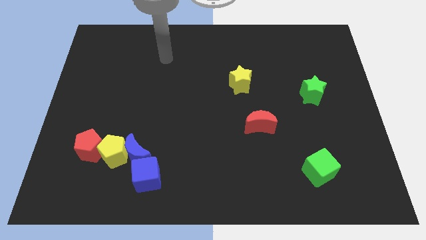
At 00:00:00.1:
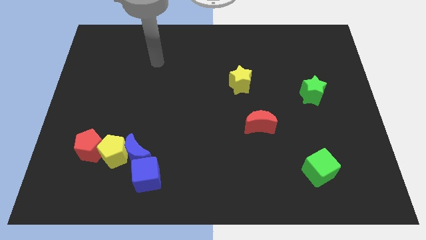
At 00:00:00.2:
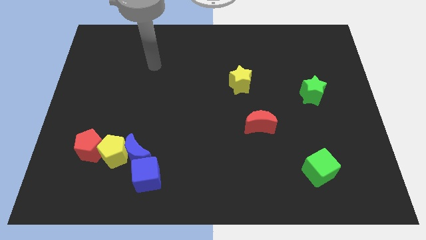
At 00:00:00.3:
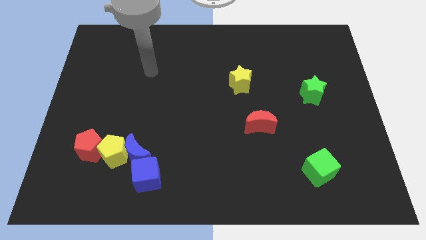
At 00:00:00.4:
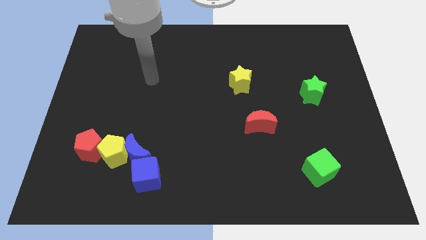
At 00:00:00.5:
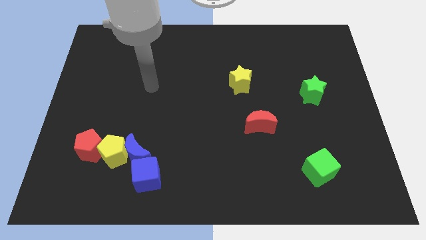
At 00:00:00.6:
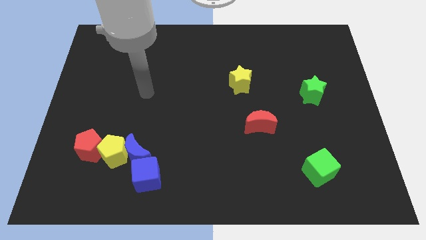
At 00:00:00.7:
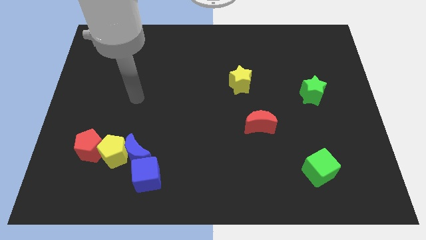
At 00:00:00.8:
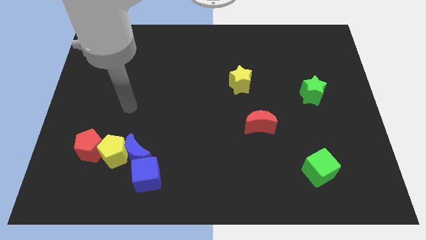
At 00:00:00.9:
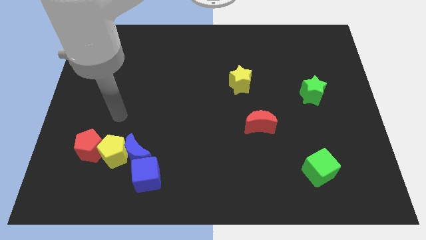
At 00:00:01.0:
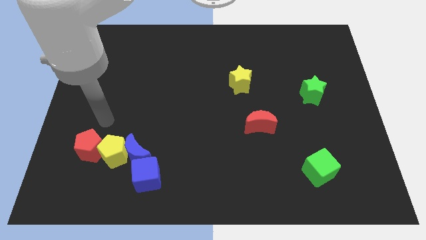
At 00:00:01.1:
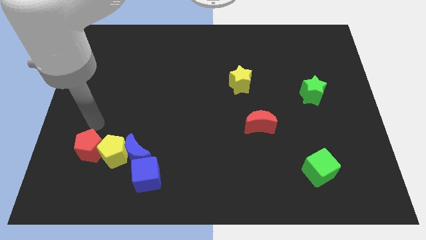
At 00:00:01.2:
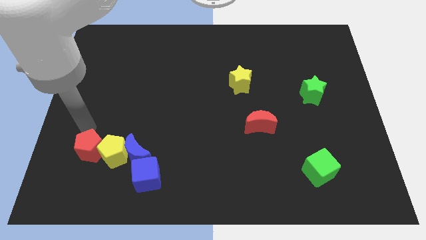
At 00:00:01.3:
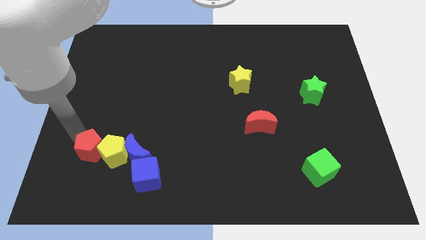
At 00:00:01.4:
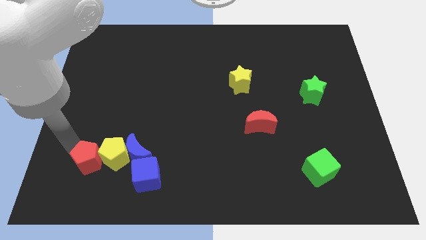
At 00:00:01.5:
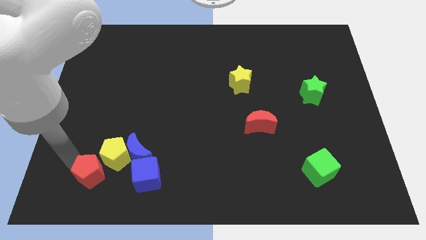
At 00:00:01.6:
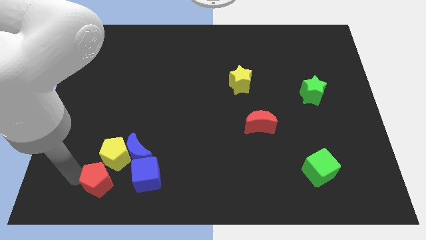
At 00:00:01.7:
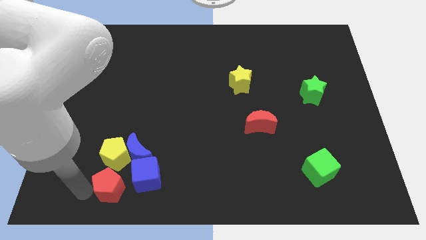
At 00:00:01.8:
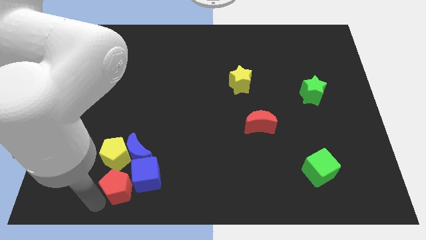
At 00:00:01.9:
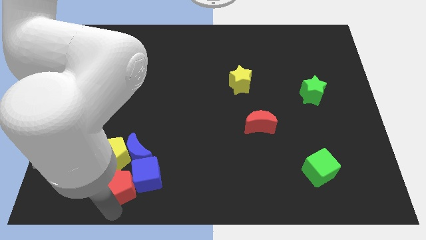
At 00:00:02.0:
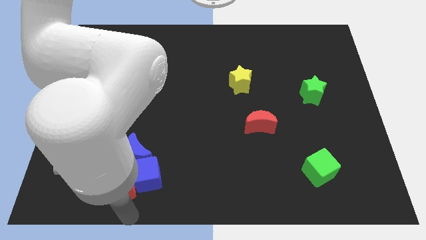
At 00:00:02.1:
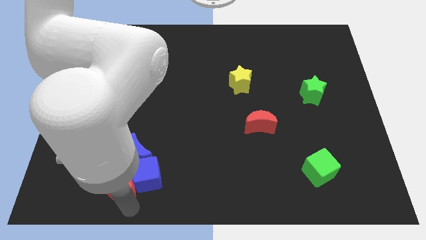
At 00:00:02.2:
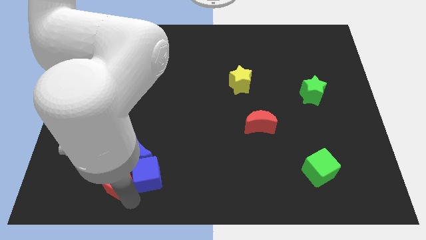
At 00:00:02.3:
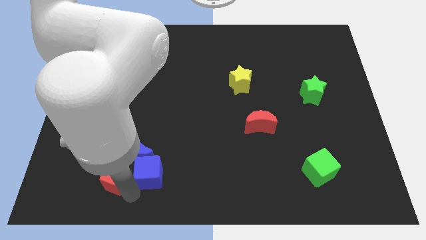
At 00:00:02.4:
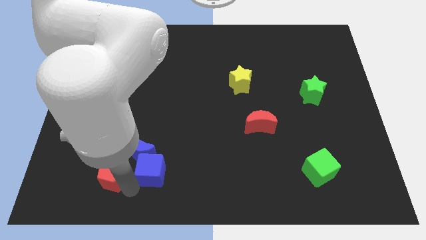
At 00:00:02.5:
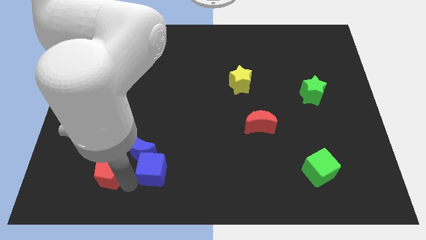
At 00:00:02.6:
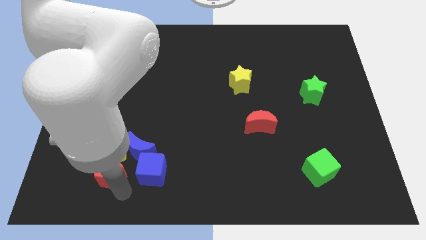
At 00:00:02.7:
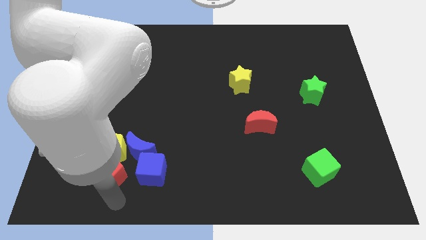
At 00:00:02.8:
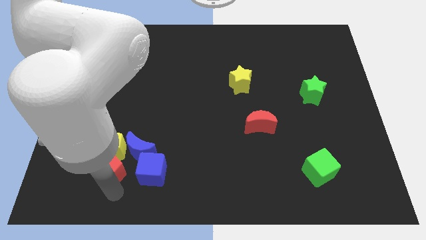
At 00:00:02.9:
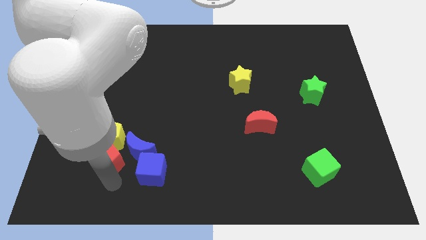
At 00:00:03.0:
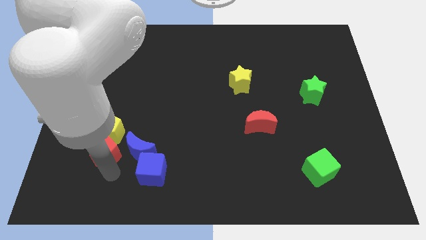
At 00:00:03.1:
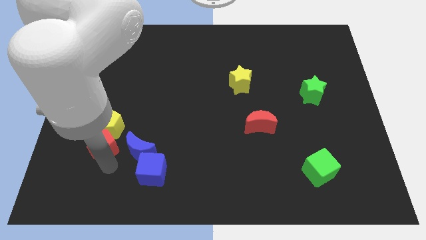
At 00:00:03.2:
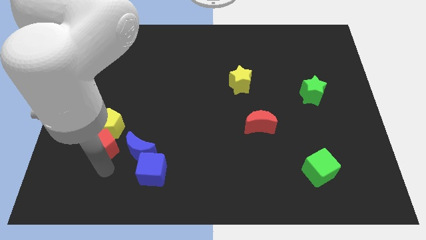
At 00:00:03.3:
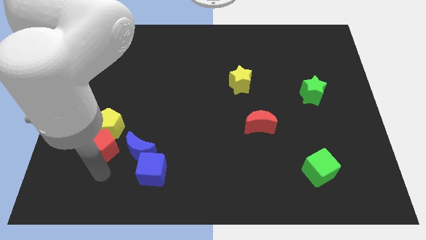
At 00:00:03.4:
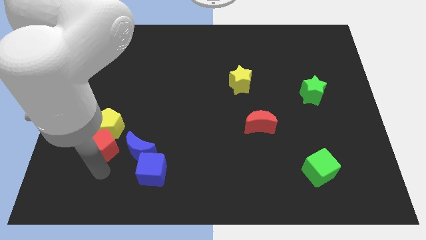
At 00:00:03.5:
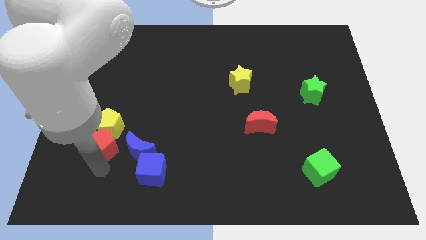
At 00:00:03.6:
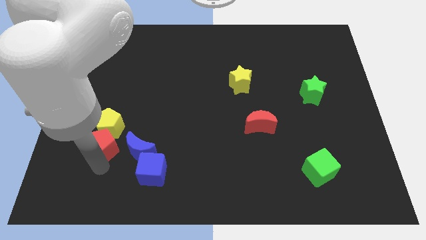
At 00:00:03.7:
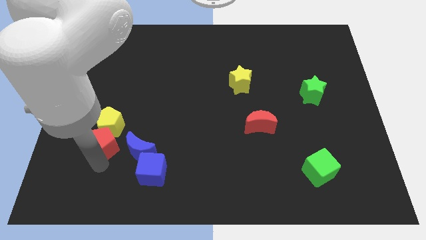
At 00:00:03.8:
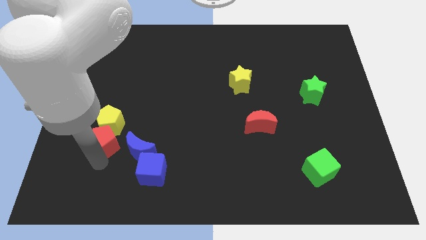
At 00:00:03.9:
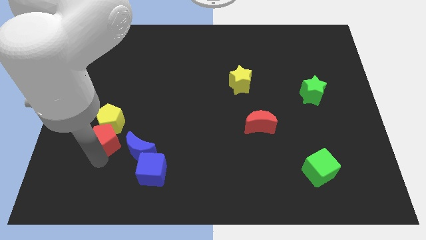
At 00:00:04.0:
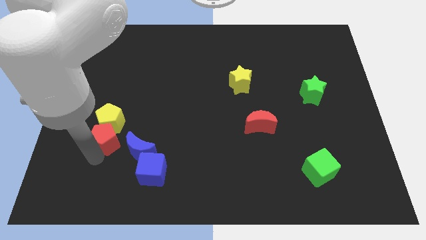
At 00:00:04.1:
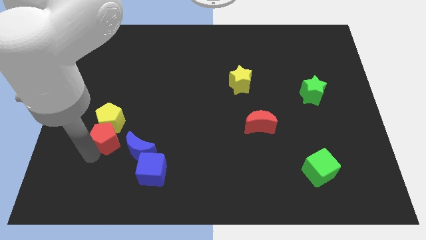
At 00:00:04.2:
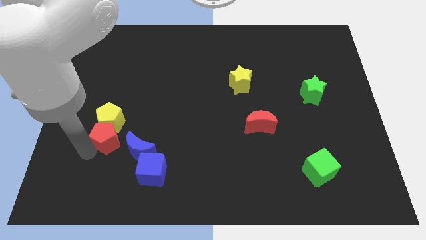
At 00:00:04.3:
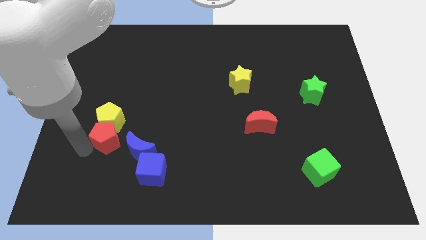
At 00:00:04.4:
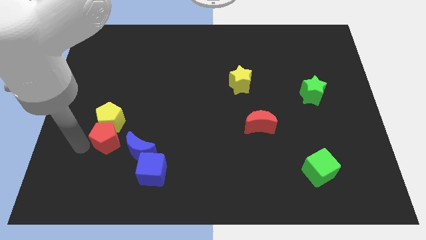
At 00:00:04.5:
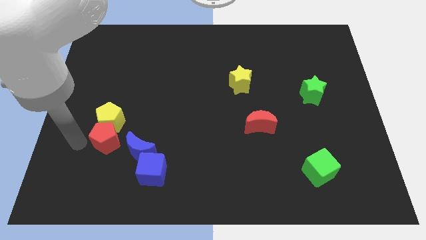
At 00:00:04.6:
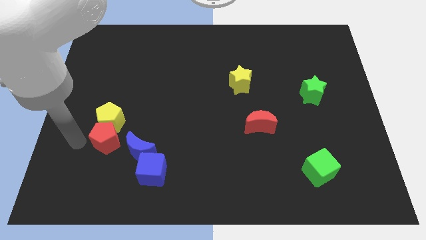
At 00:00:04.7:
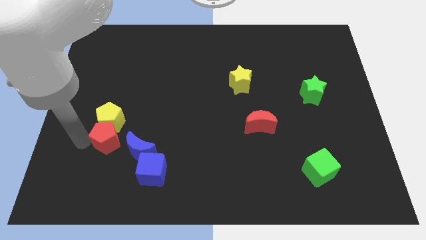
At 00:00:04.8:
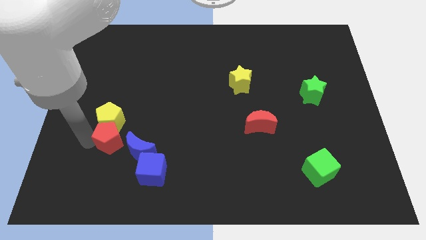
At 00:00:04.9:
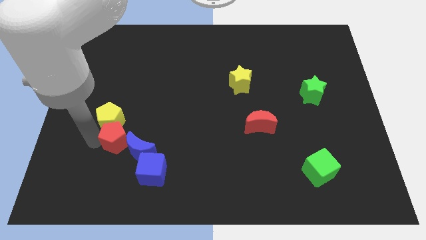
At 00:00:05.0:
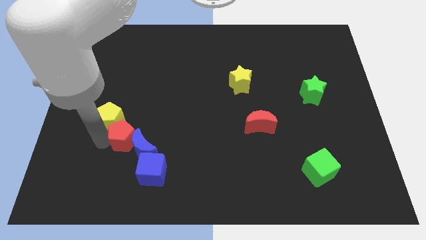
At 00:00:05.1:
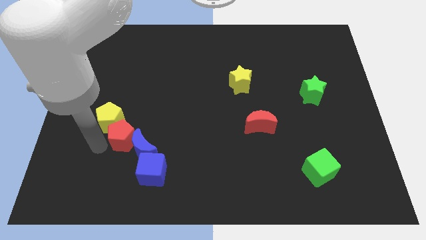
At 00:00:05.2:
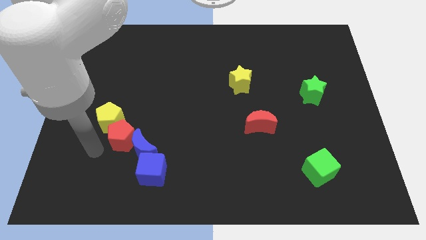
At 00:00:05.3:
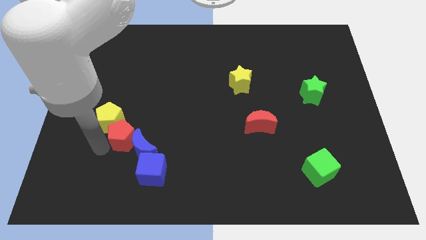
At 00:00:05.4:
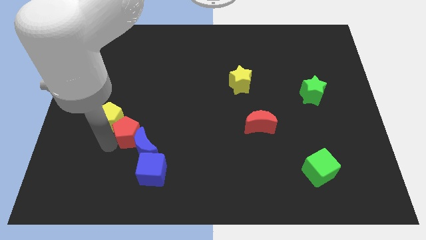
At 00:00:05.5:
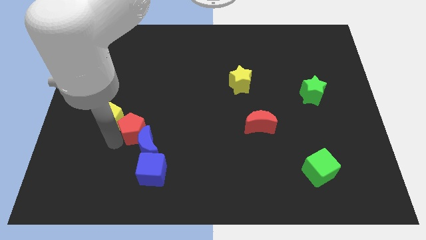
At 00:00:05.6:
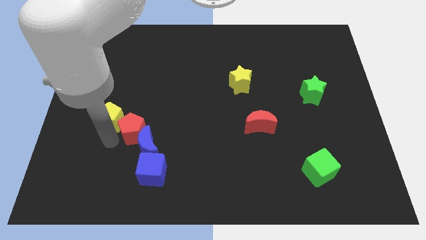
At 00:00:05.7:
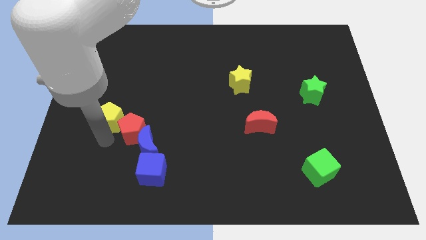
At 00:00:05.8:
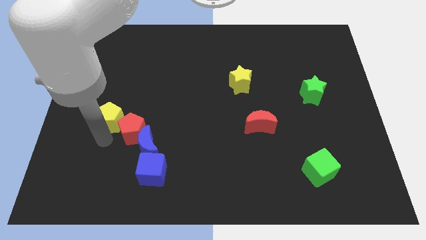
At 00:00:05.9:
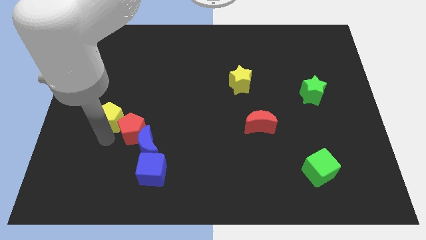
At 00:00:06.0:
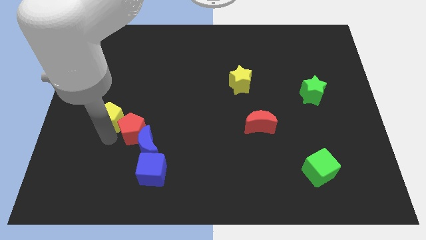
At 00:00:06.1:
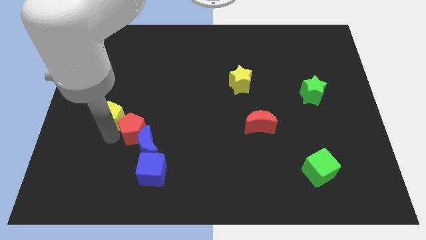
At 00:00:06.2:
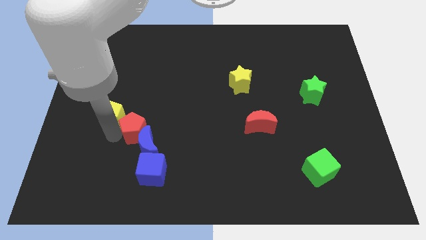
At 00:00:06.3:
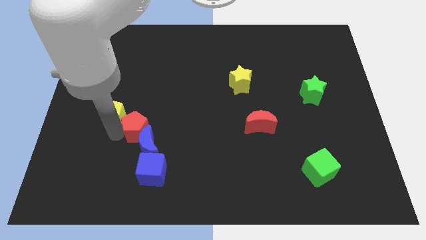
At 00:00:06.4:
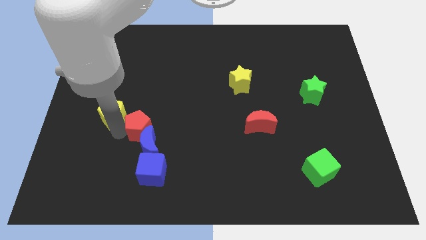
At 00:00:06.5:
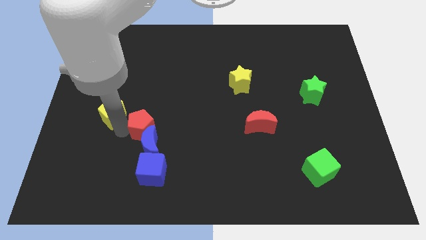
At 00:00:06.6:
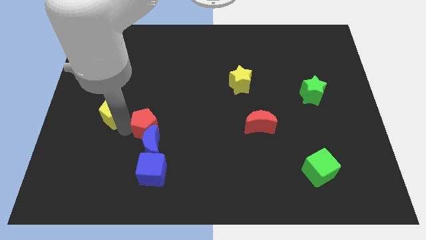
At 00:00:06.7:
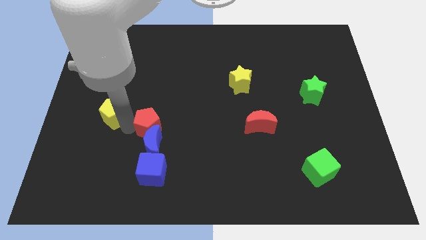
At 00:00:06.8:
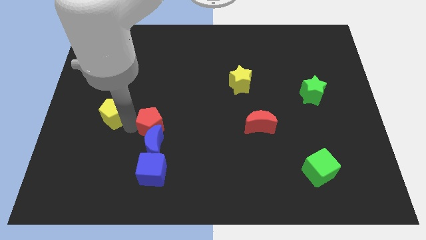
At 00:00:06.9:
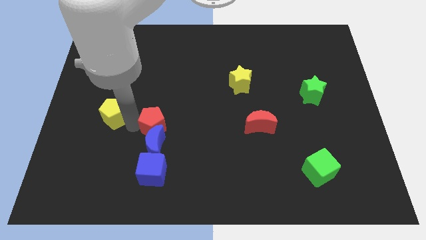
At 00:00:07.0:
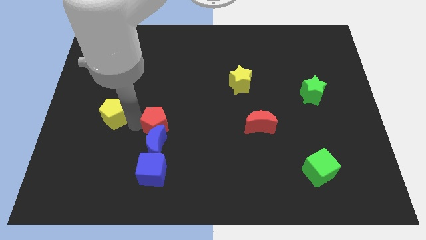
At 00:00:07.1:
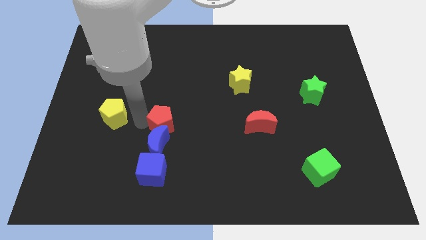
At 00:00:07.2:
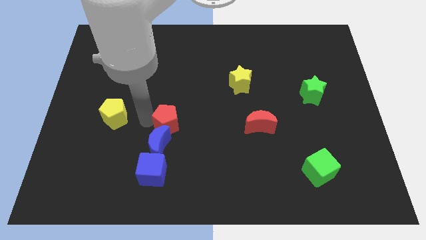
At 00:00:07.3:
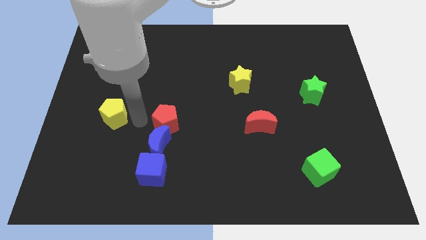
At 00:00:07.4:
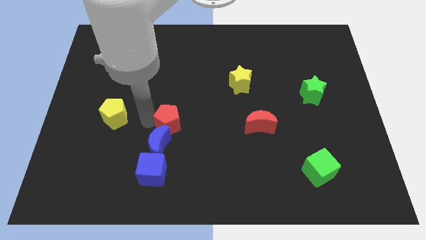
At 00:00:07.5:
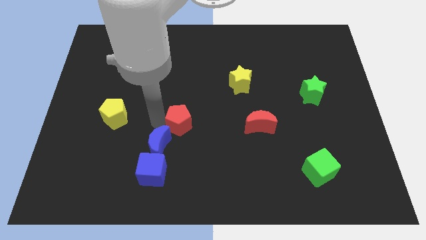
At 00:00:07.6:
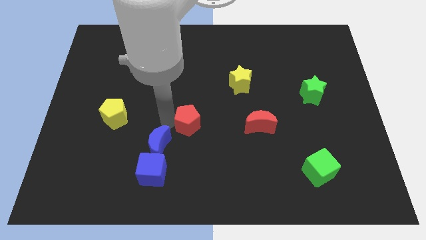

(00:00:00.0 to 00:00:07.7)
put the red pentagon left of the red moon
